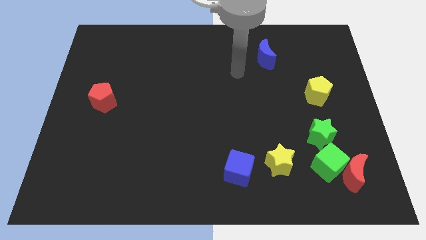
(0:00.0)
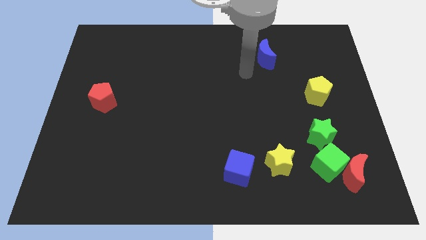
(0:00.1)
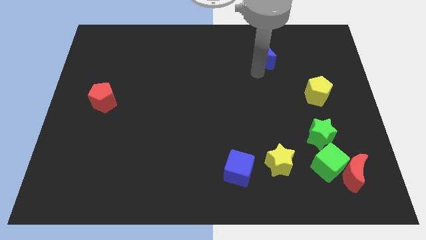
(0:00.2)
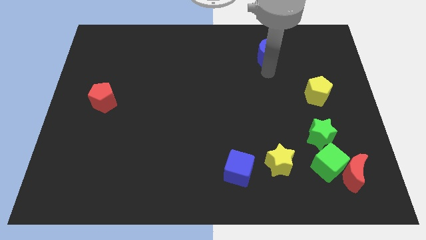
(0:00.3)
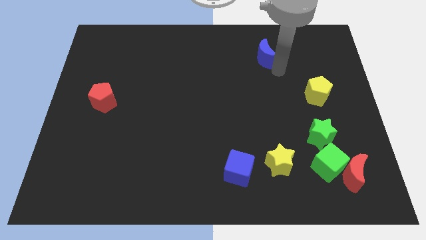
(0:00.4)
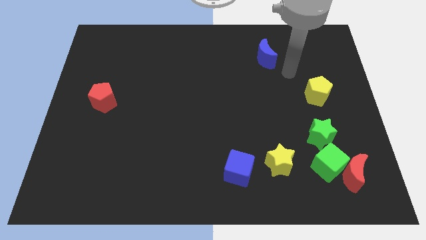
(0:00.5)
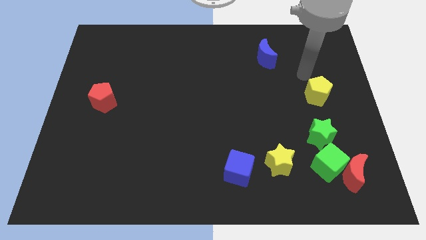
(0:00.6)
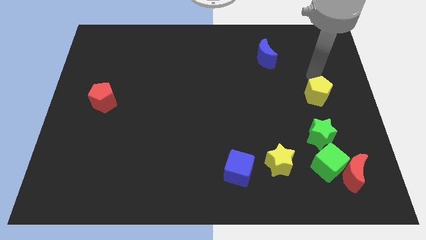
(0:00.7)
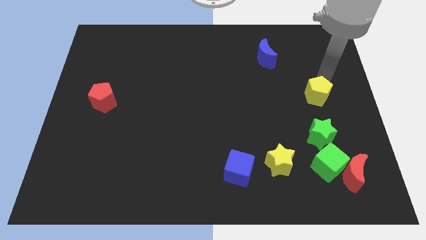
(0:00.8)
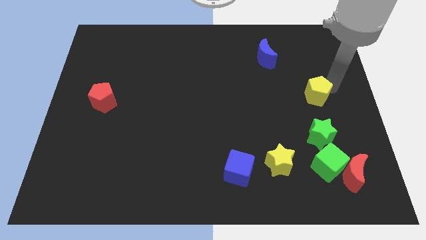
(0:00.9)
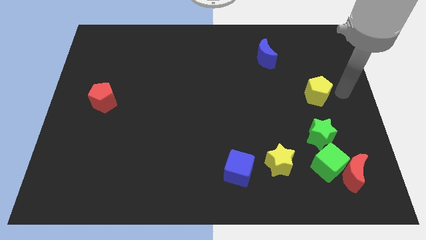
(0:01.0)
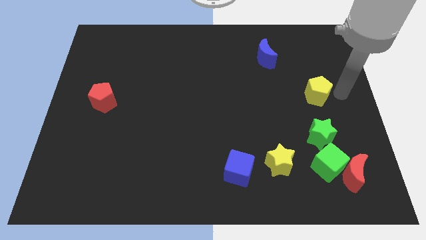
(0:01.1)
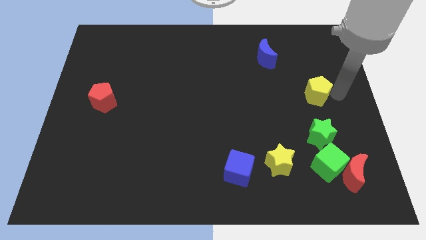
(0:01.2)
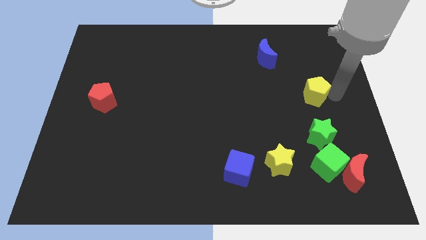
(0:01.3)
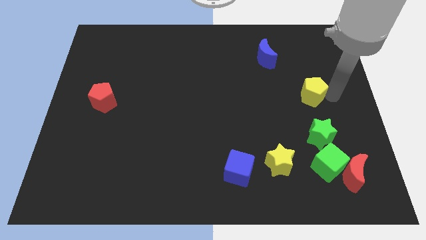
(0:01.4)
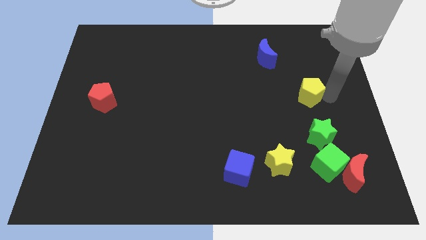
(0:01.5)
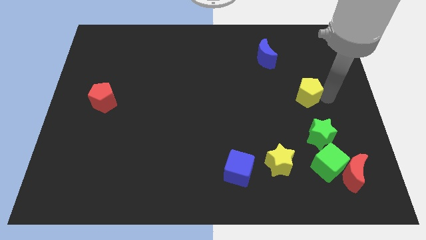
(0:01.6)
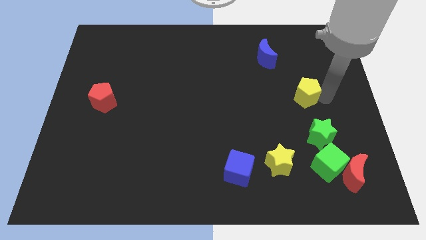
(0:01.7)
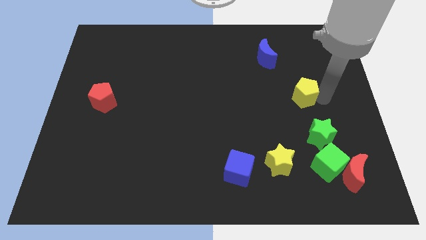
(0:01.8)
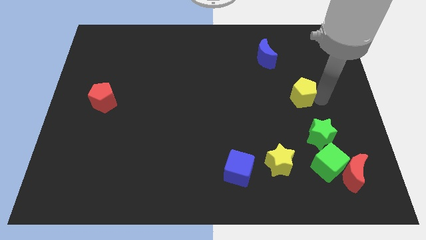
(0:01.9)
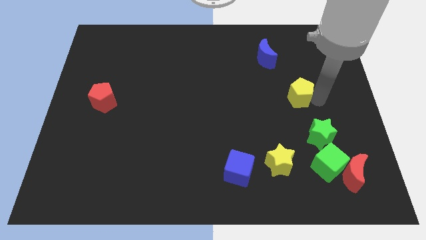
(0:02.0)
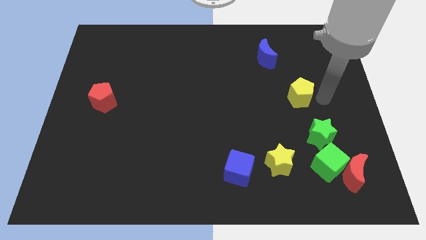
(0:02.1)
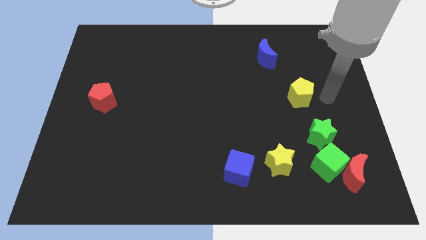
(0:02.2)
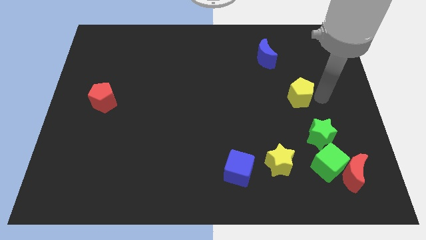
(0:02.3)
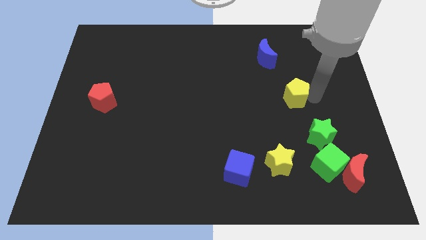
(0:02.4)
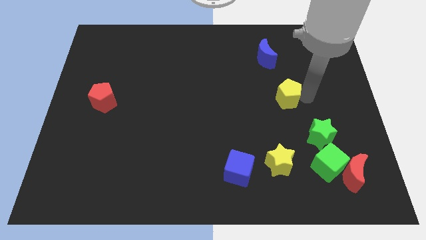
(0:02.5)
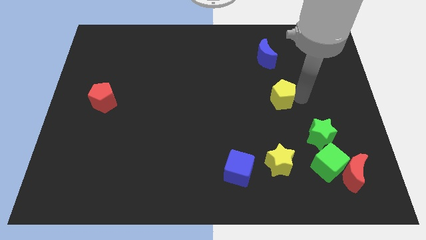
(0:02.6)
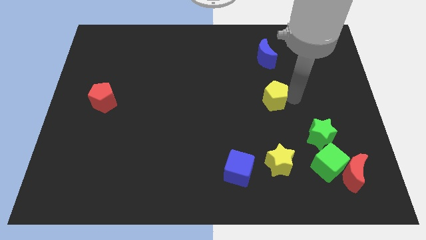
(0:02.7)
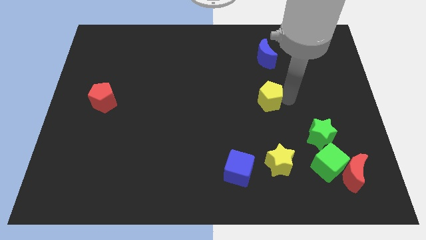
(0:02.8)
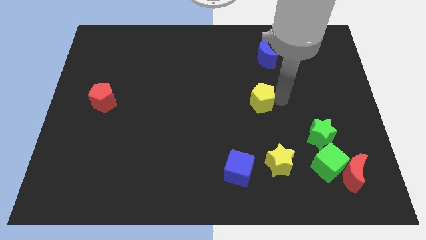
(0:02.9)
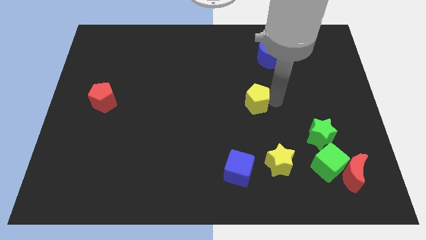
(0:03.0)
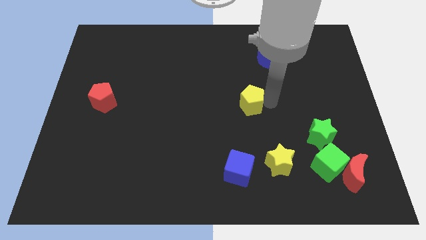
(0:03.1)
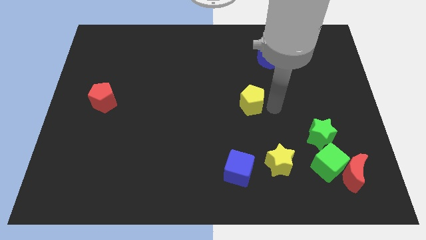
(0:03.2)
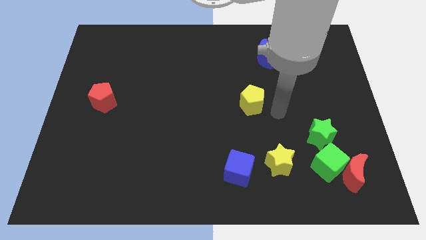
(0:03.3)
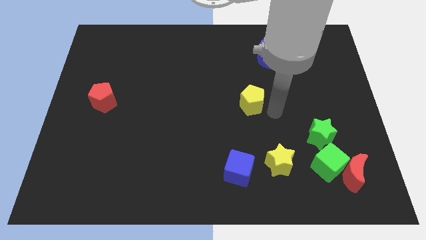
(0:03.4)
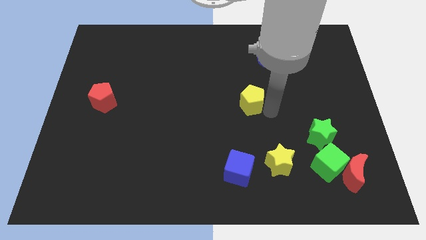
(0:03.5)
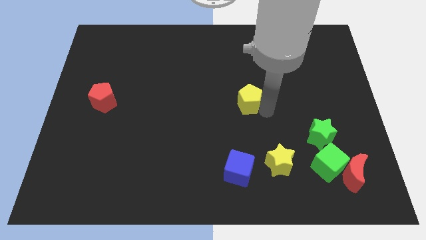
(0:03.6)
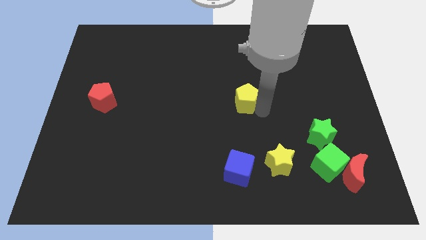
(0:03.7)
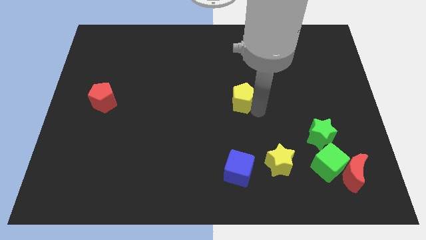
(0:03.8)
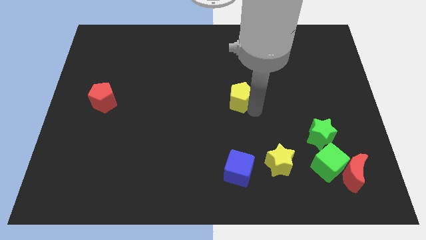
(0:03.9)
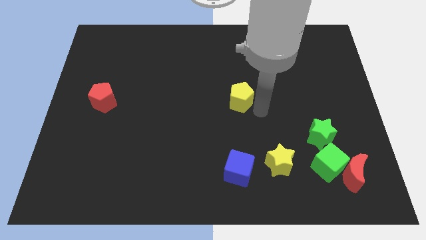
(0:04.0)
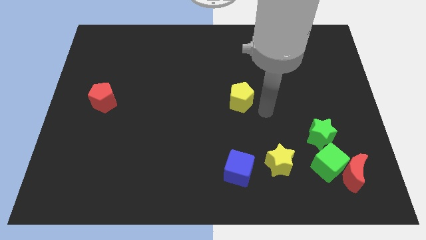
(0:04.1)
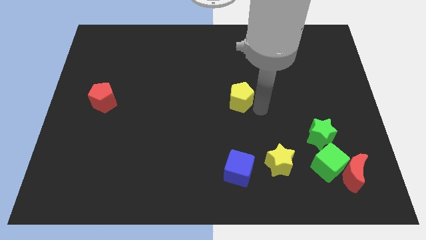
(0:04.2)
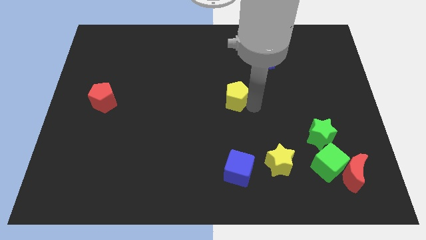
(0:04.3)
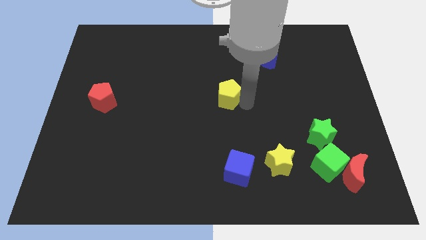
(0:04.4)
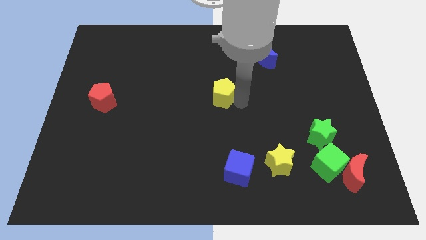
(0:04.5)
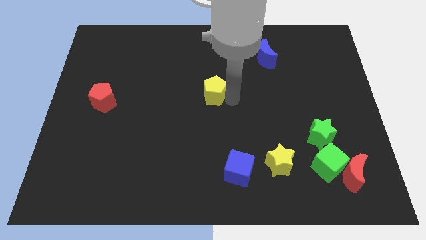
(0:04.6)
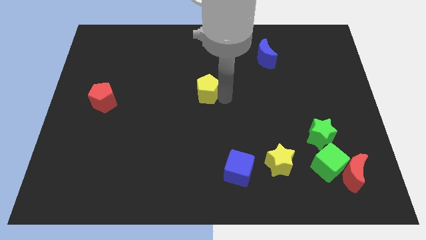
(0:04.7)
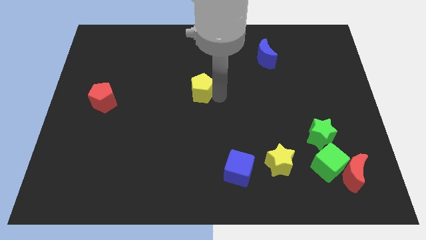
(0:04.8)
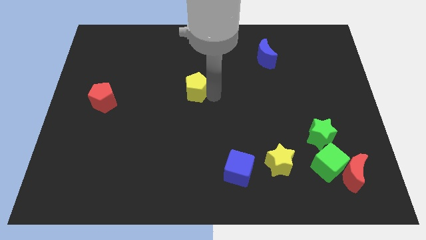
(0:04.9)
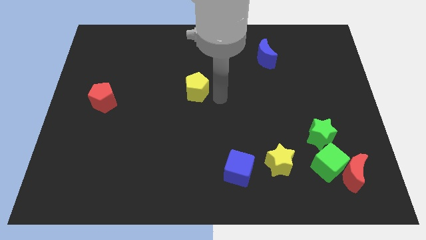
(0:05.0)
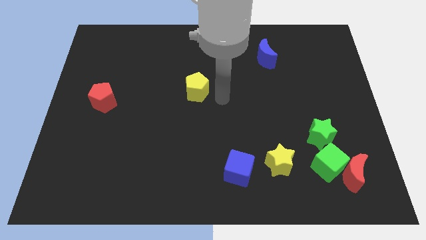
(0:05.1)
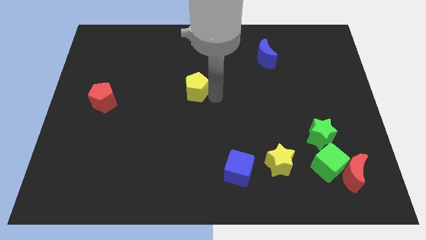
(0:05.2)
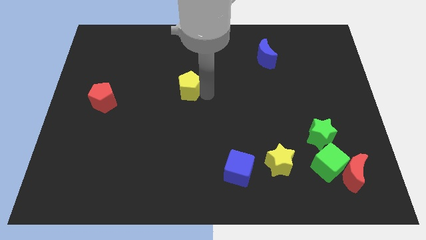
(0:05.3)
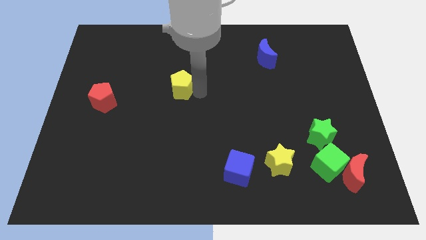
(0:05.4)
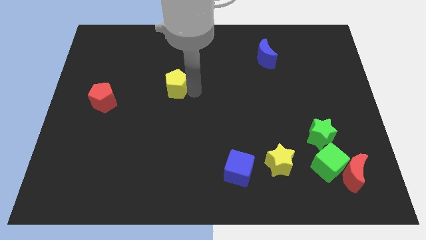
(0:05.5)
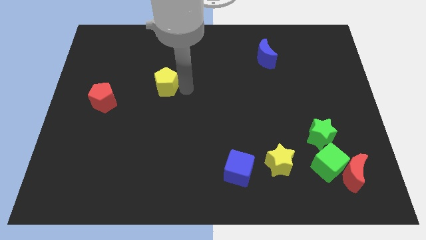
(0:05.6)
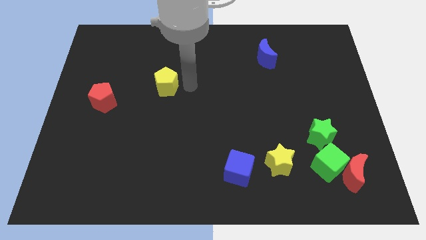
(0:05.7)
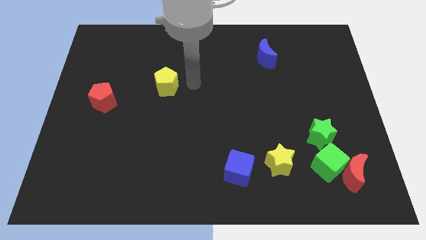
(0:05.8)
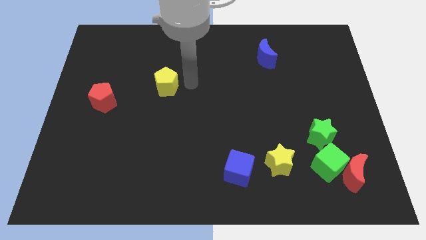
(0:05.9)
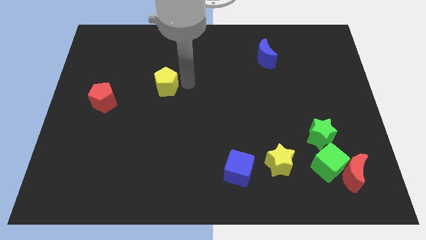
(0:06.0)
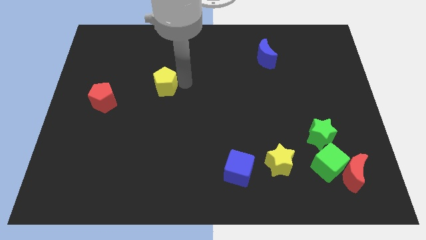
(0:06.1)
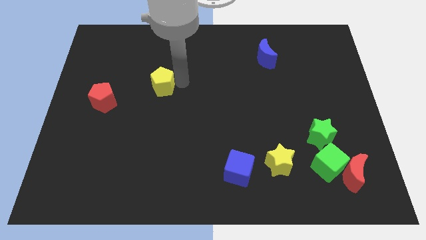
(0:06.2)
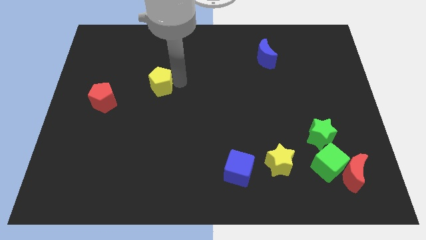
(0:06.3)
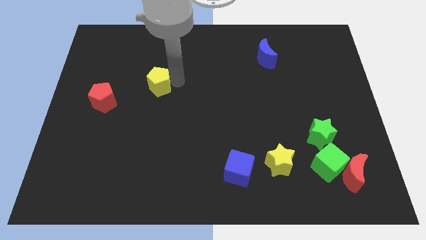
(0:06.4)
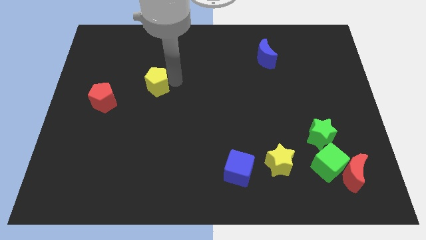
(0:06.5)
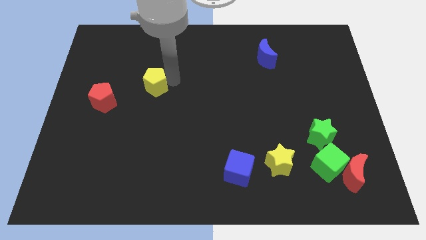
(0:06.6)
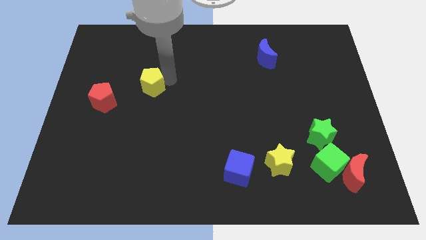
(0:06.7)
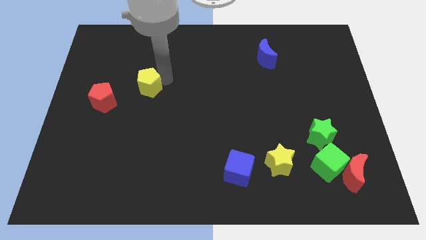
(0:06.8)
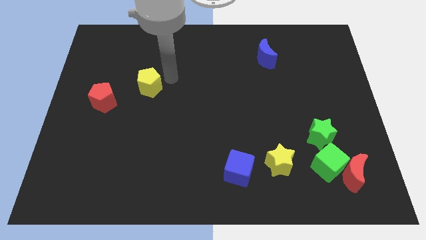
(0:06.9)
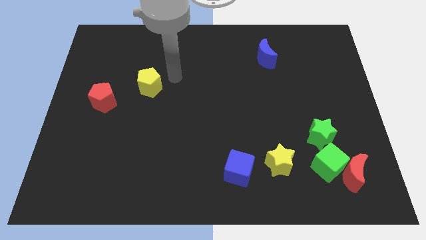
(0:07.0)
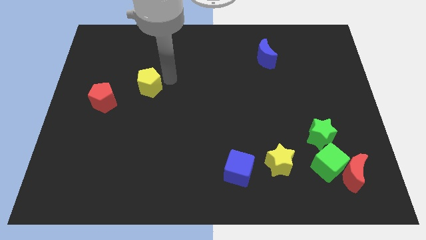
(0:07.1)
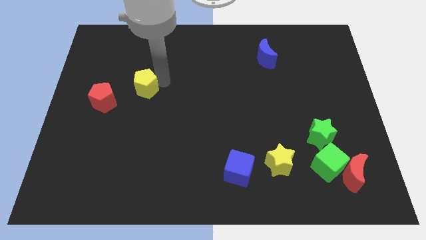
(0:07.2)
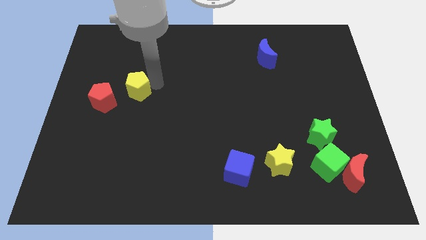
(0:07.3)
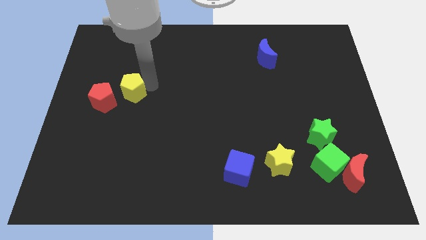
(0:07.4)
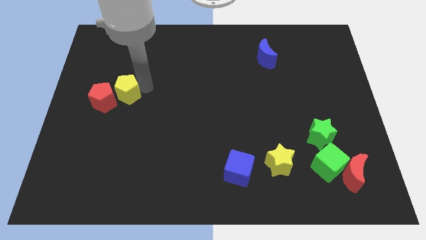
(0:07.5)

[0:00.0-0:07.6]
slide the yellow pentagon next to the red pentagon
